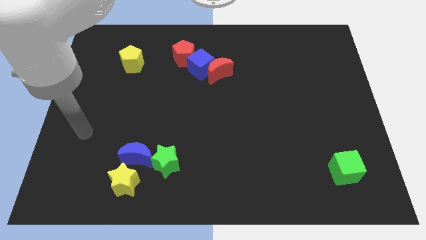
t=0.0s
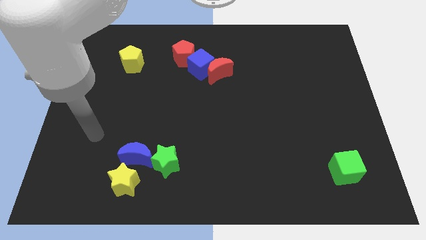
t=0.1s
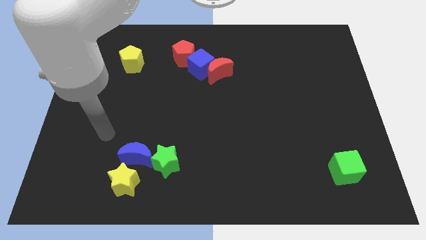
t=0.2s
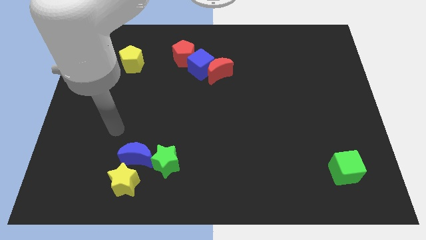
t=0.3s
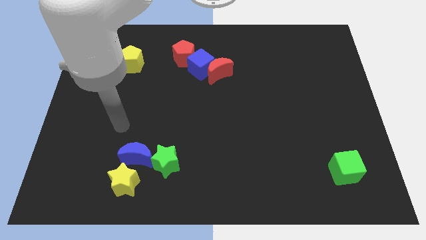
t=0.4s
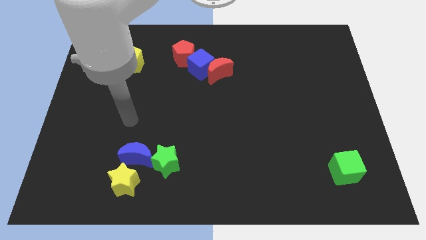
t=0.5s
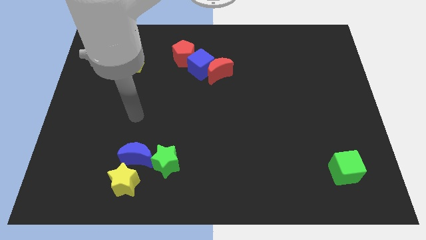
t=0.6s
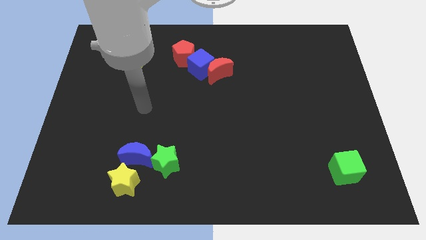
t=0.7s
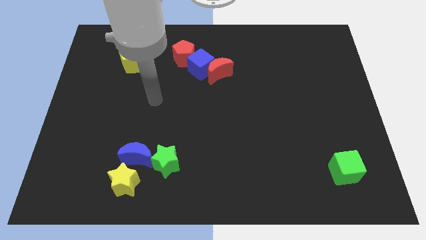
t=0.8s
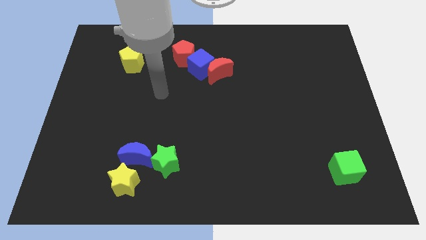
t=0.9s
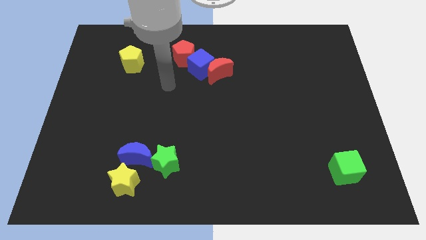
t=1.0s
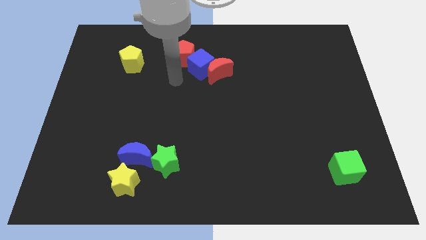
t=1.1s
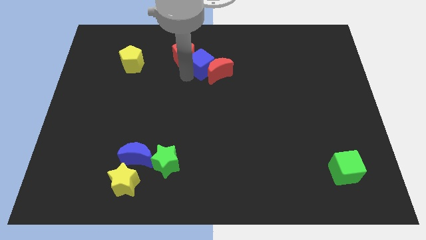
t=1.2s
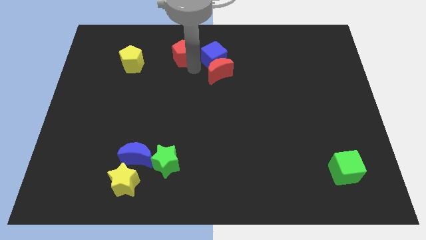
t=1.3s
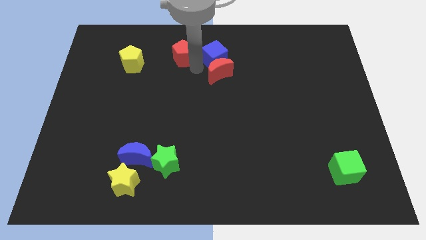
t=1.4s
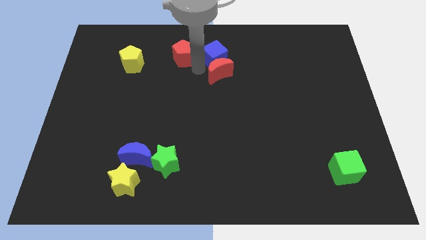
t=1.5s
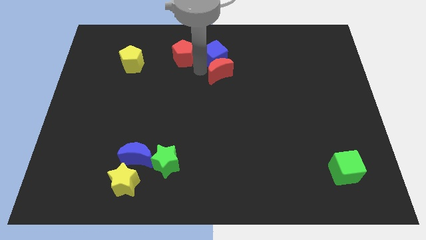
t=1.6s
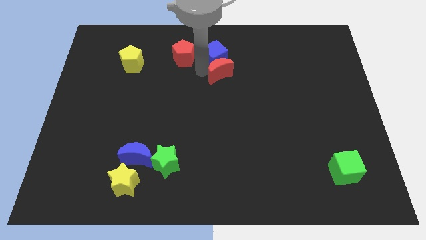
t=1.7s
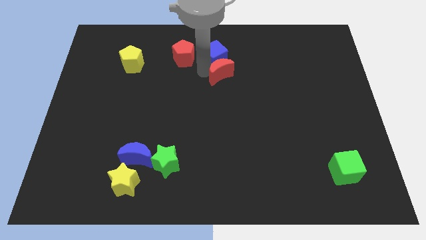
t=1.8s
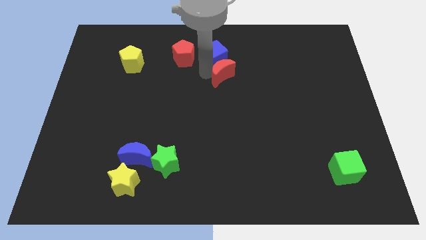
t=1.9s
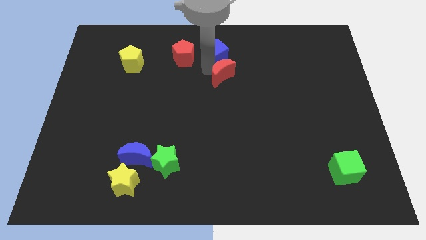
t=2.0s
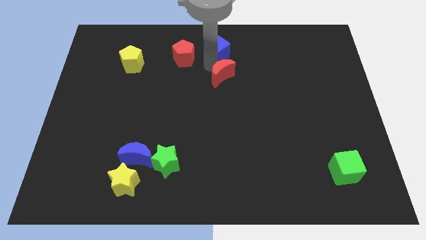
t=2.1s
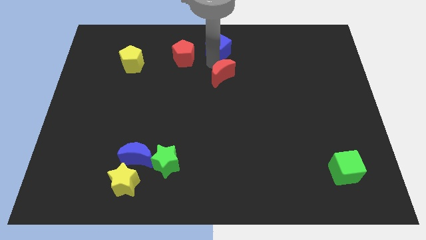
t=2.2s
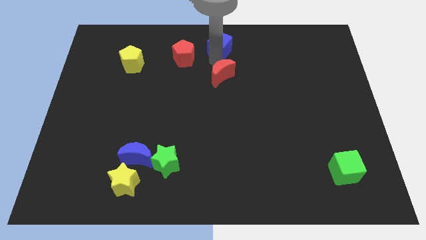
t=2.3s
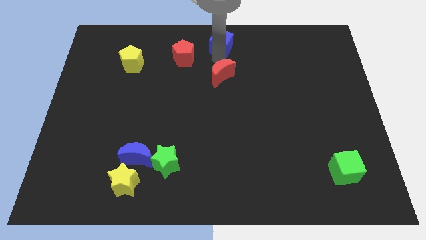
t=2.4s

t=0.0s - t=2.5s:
move the red moon away from the blue cube

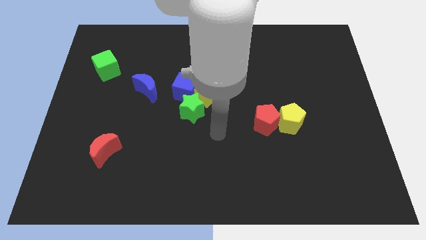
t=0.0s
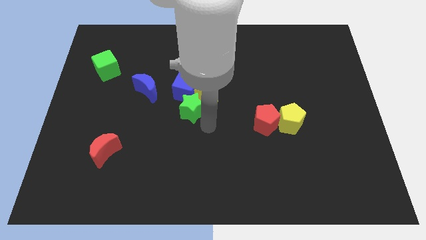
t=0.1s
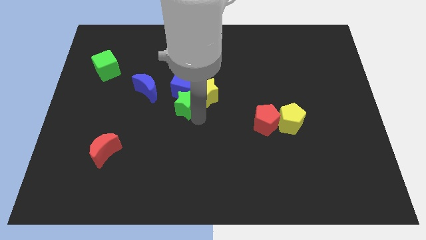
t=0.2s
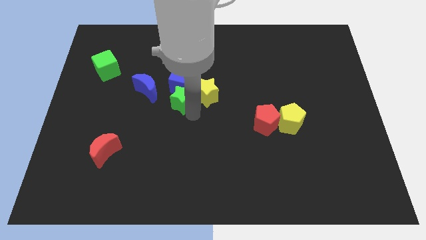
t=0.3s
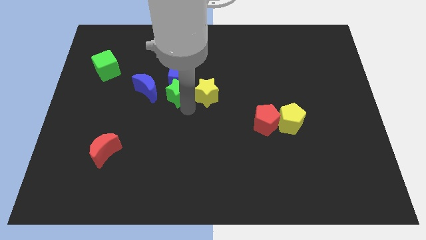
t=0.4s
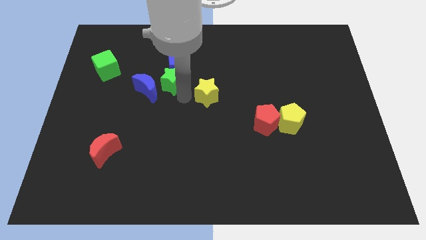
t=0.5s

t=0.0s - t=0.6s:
separate the yellow star from the blue cube and green star

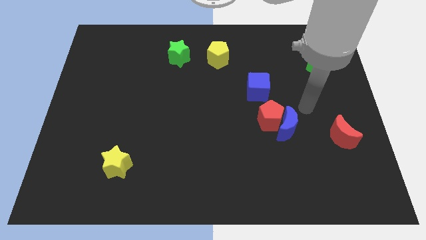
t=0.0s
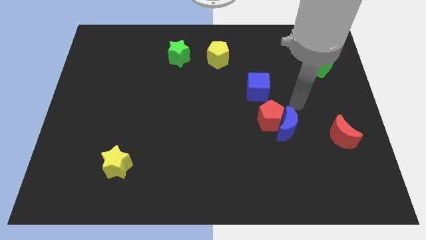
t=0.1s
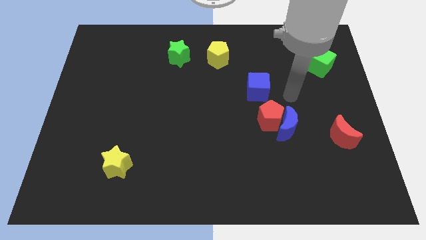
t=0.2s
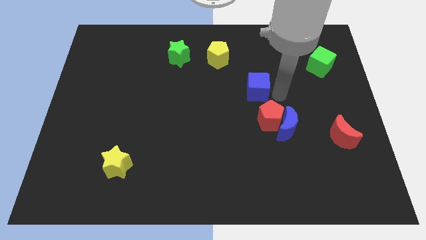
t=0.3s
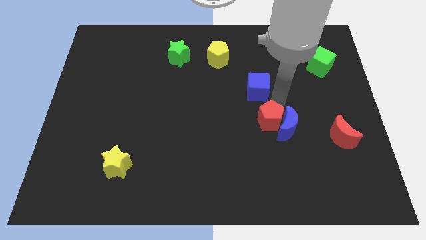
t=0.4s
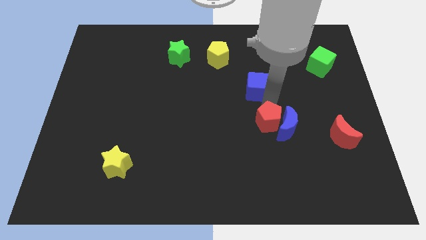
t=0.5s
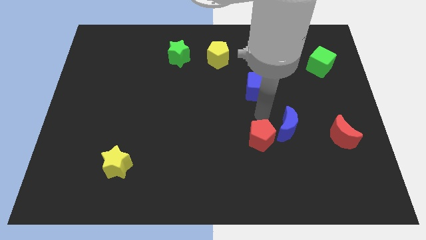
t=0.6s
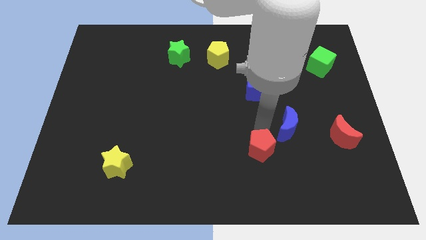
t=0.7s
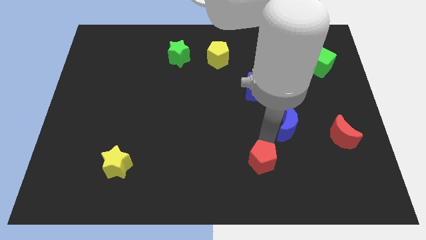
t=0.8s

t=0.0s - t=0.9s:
move the blue moon away from the red pentagon

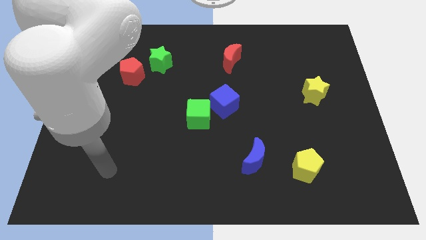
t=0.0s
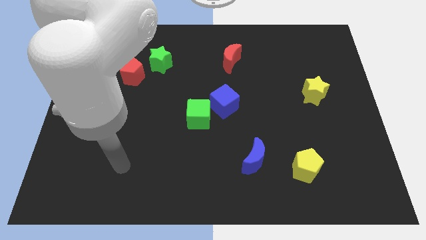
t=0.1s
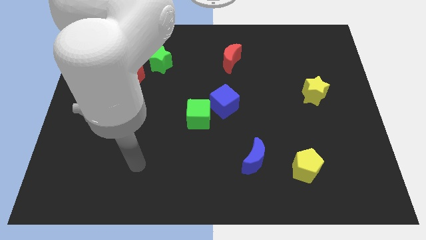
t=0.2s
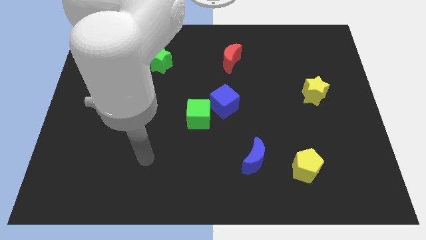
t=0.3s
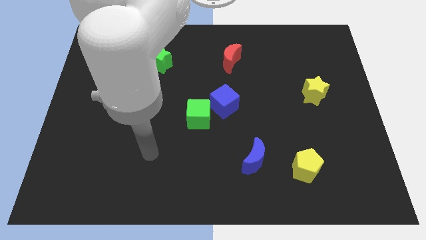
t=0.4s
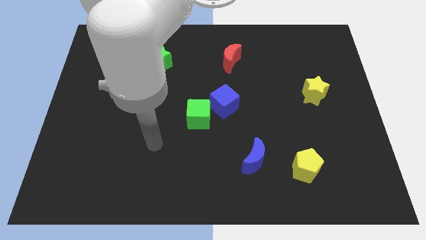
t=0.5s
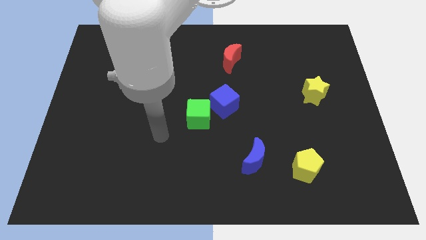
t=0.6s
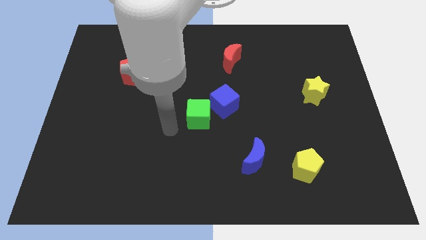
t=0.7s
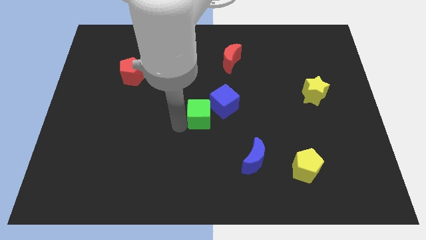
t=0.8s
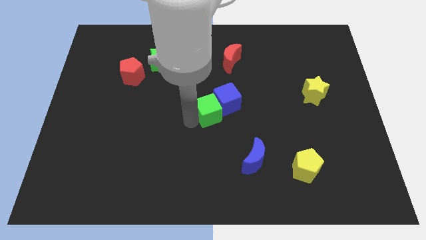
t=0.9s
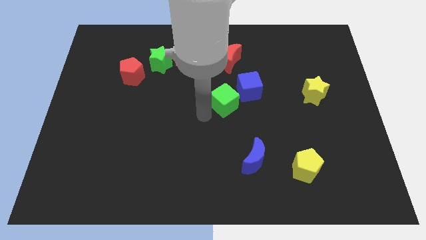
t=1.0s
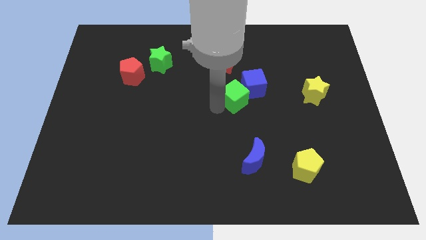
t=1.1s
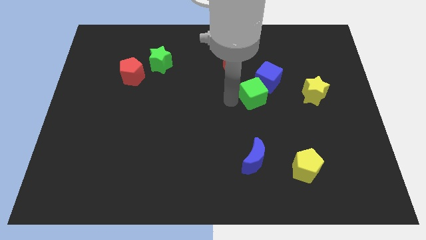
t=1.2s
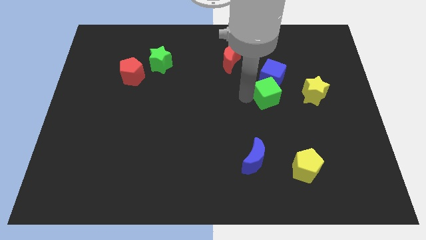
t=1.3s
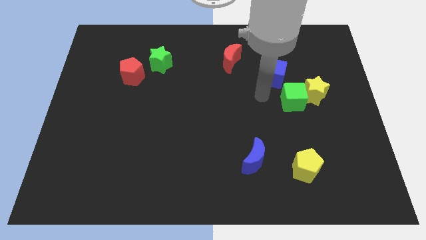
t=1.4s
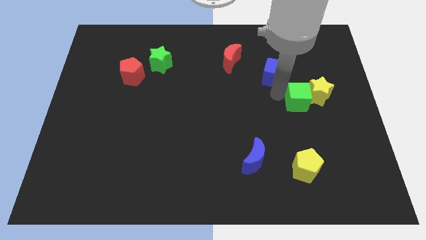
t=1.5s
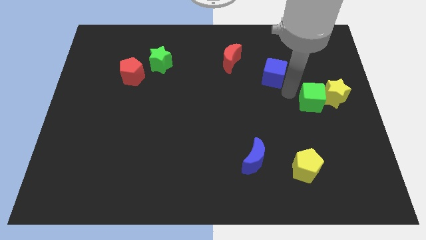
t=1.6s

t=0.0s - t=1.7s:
separate the blue cube from the green cube

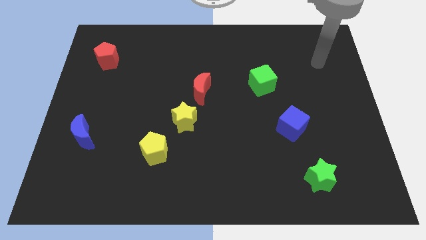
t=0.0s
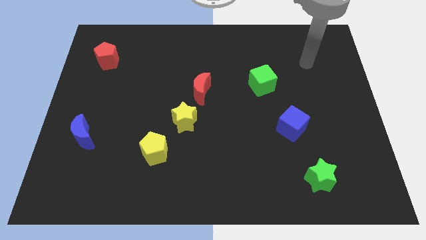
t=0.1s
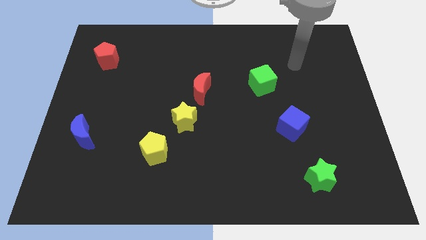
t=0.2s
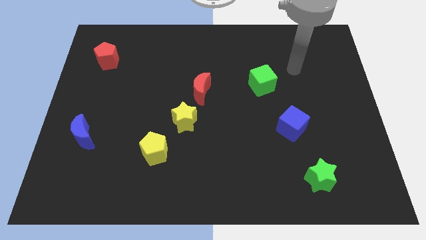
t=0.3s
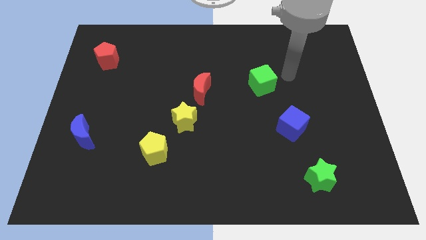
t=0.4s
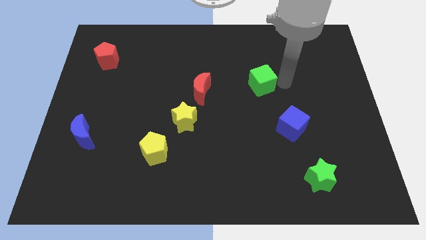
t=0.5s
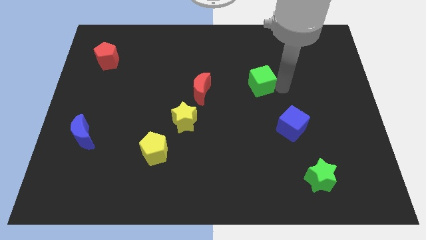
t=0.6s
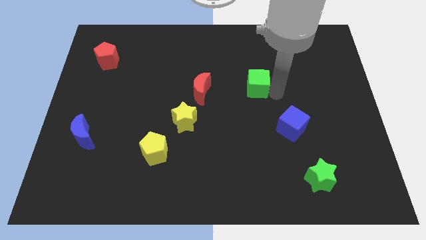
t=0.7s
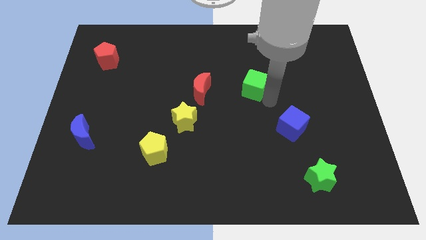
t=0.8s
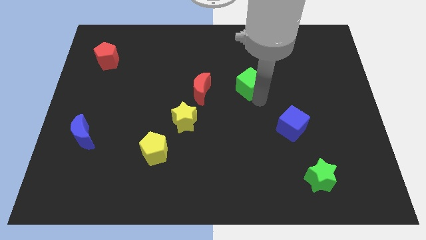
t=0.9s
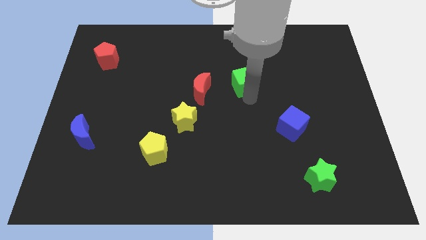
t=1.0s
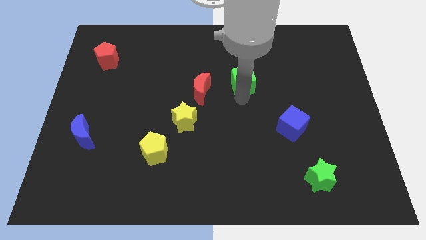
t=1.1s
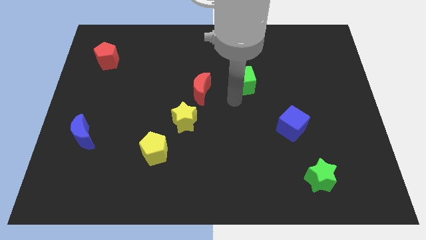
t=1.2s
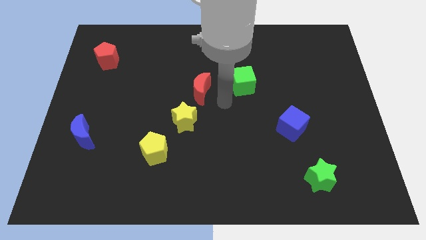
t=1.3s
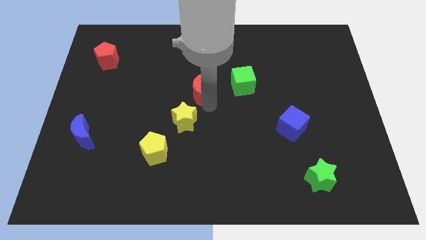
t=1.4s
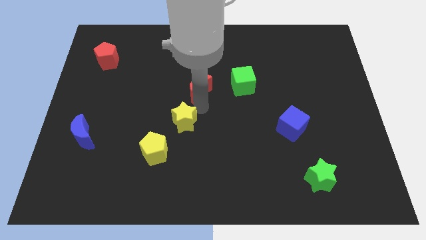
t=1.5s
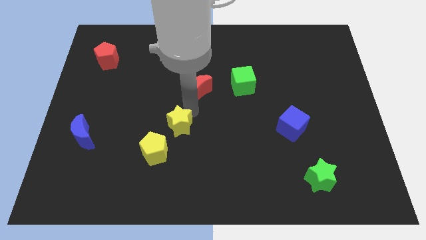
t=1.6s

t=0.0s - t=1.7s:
move the red moon away from the yellow star

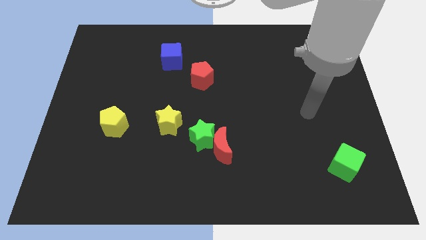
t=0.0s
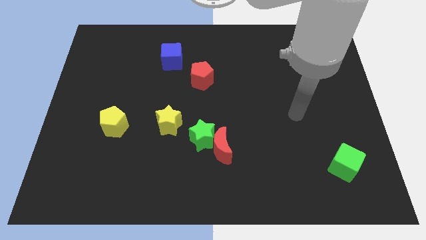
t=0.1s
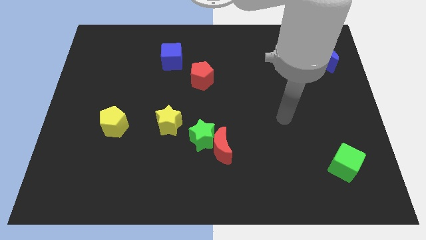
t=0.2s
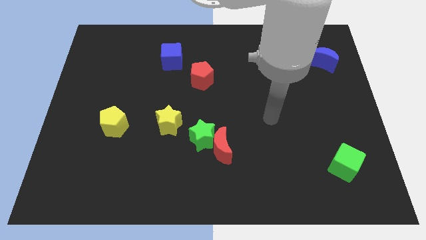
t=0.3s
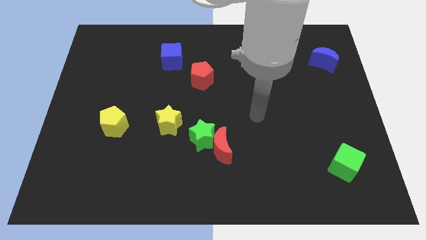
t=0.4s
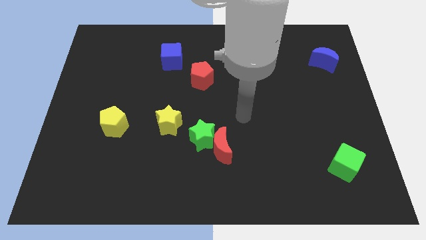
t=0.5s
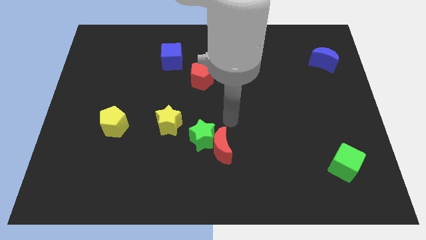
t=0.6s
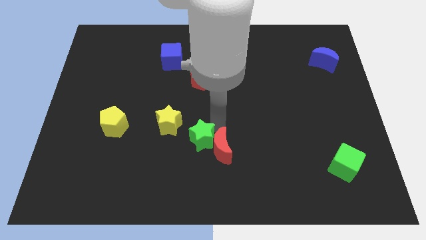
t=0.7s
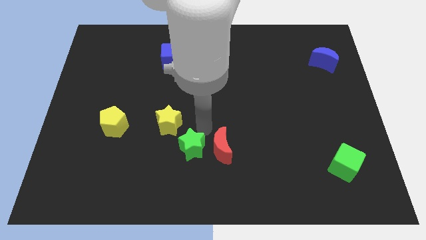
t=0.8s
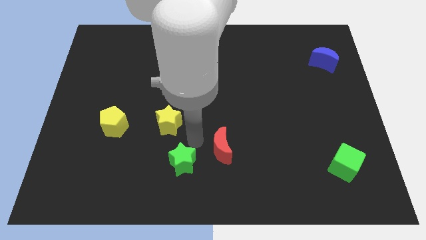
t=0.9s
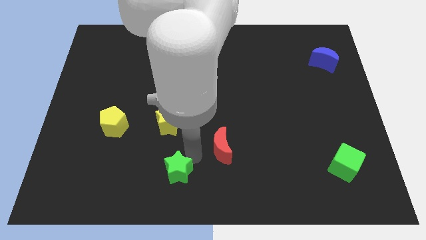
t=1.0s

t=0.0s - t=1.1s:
move the red moon away from the green star

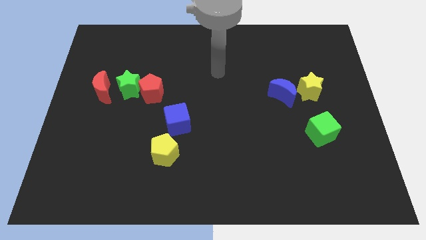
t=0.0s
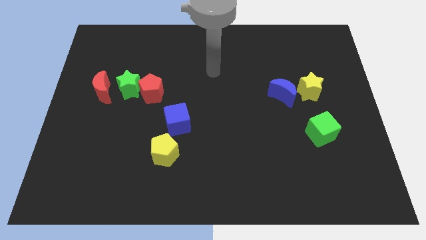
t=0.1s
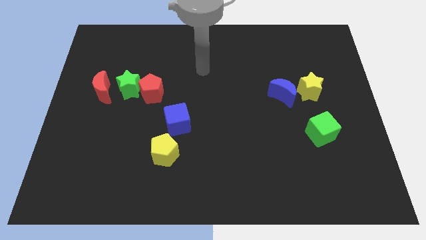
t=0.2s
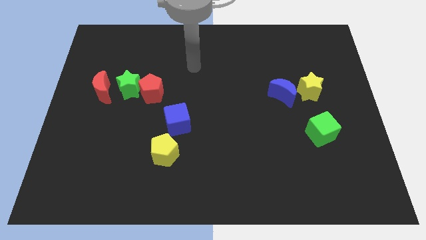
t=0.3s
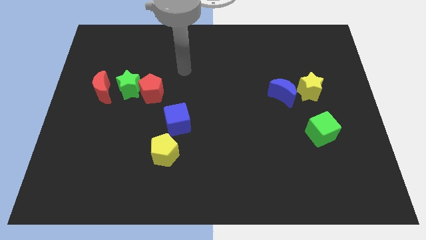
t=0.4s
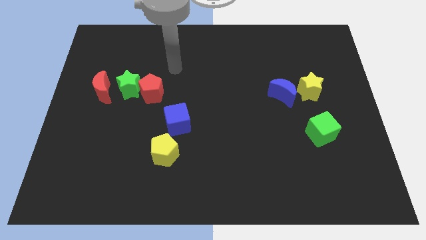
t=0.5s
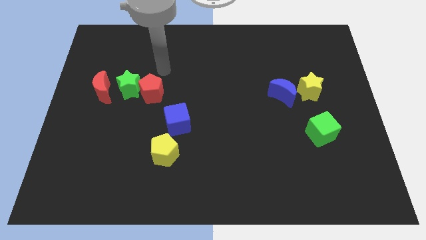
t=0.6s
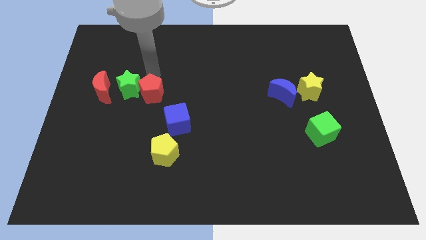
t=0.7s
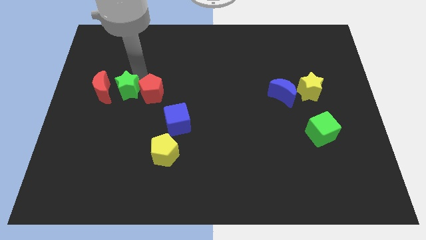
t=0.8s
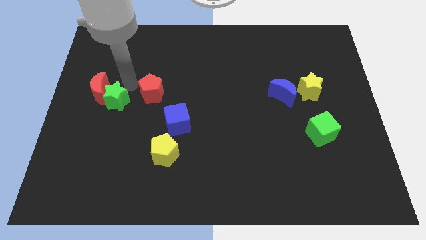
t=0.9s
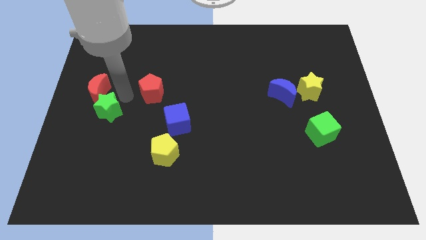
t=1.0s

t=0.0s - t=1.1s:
separate the red pentagon from the green star
